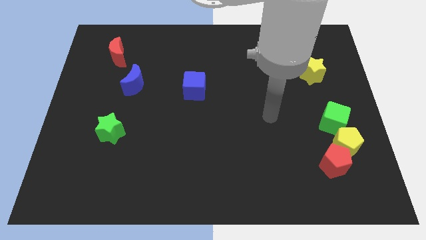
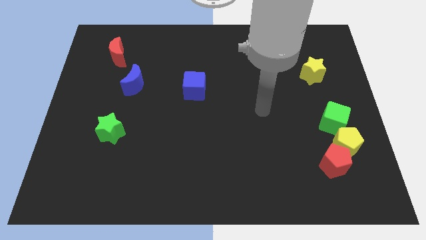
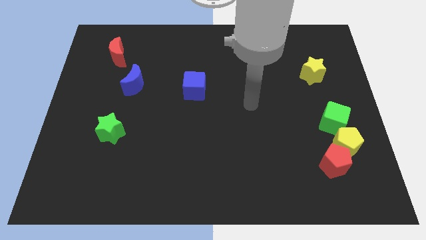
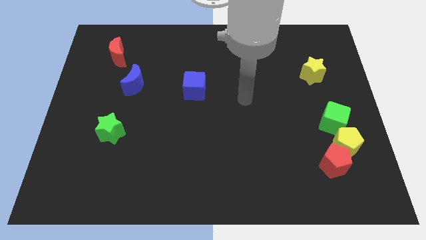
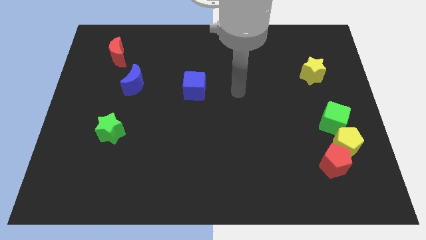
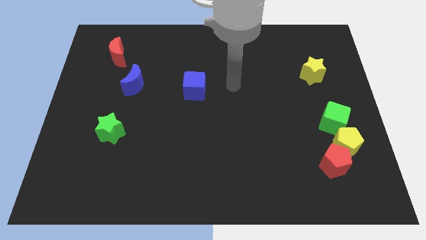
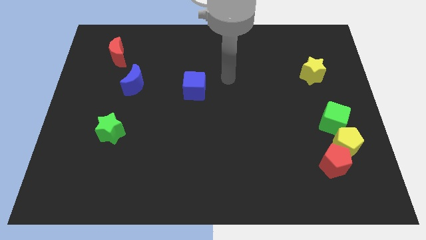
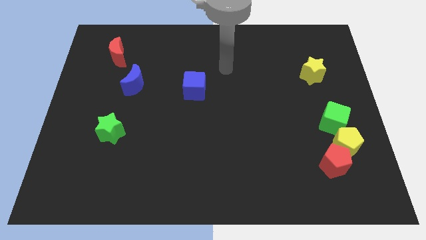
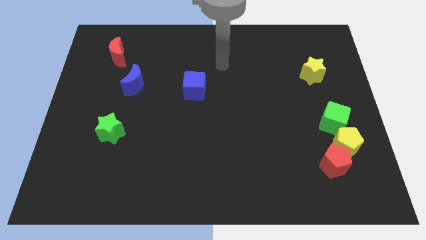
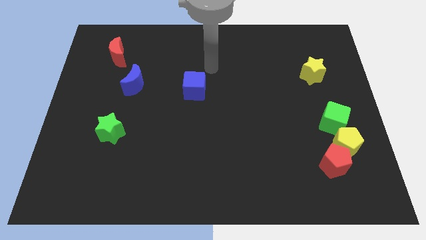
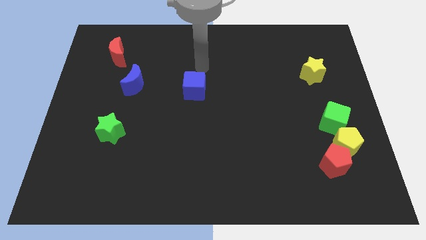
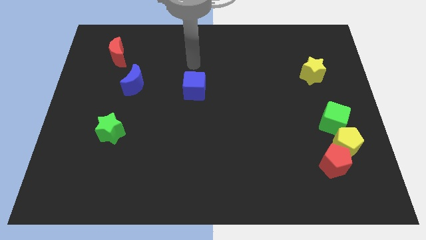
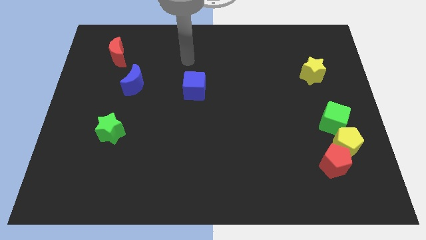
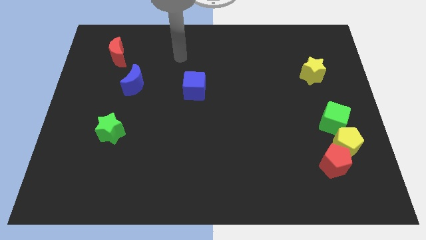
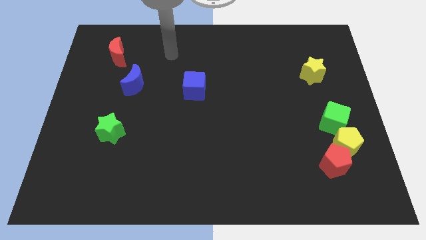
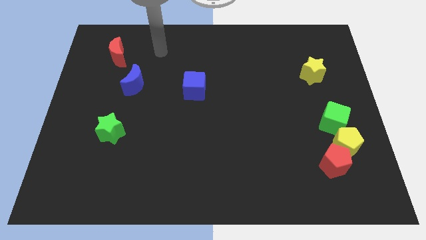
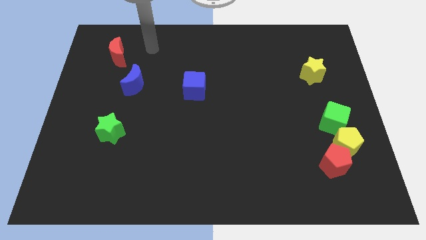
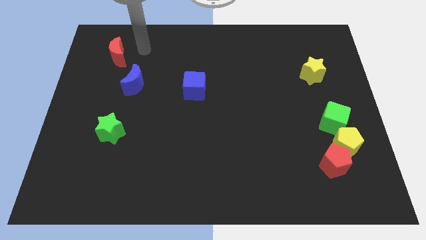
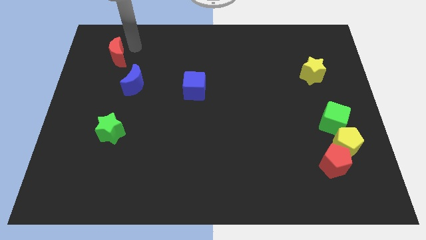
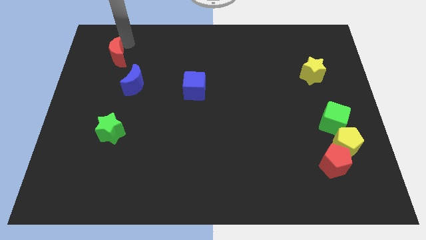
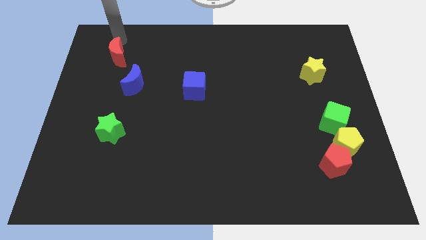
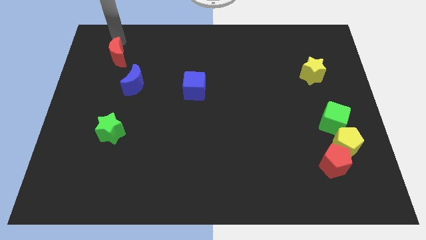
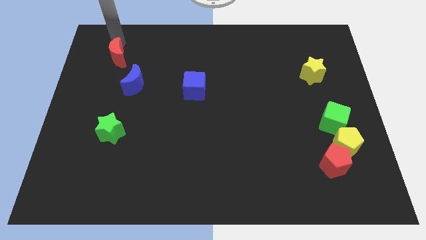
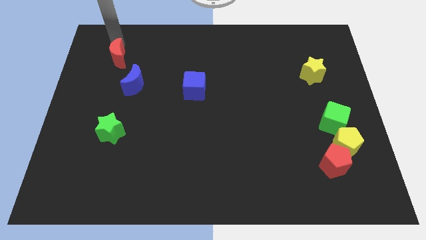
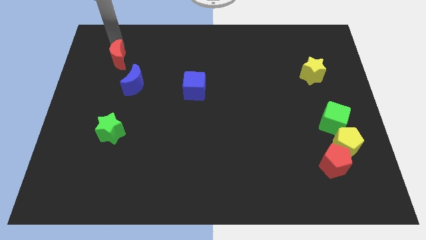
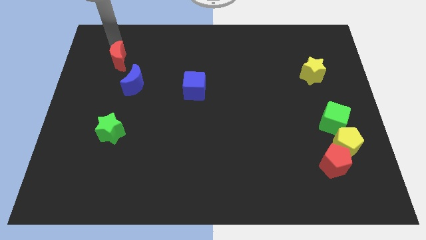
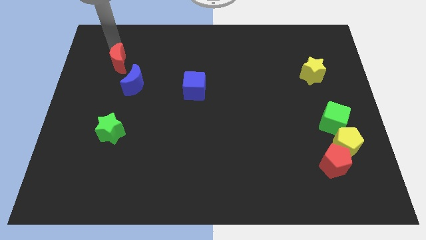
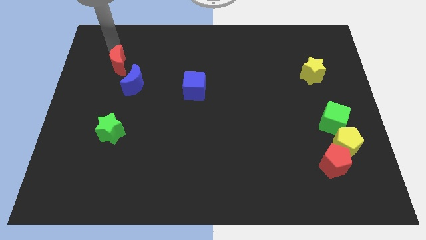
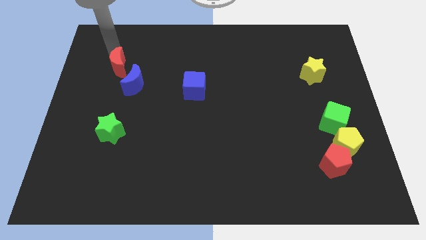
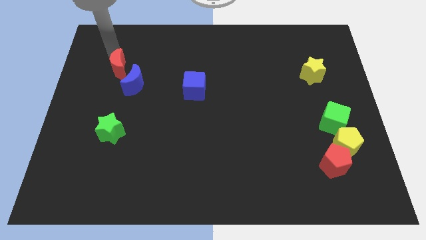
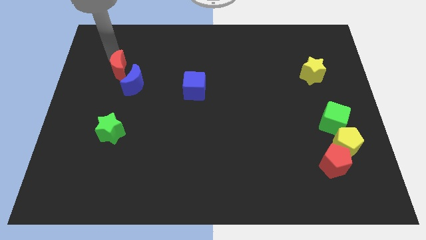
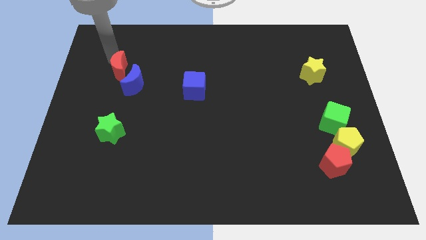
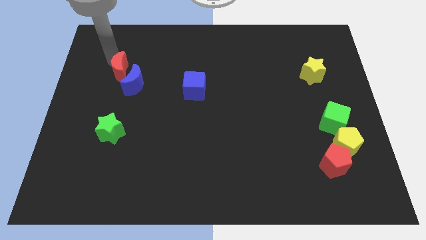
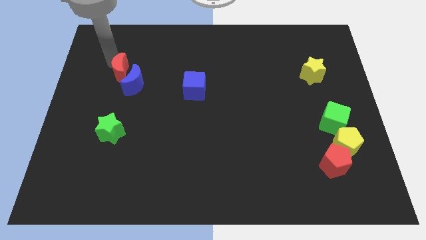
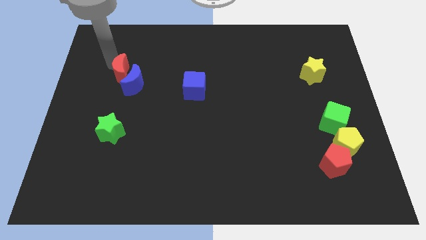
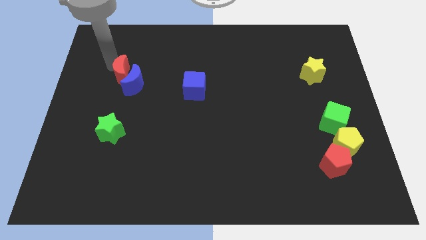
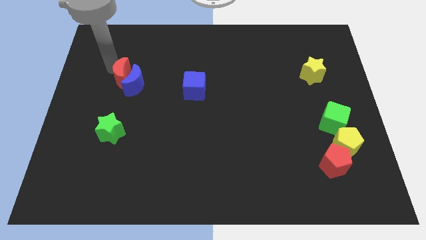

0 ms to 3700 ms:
push the red moon somewhat downwards

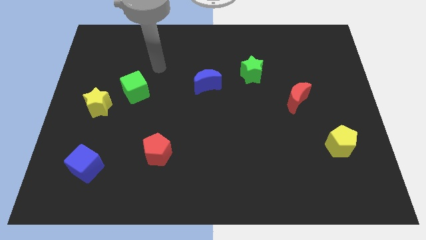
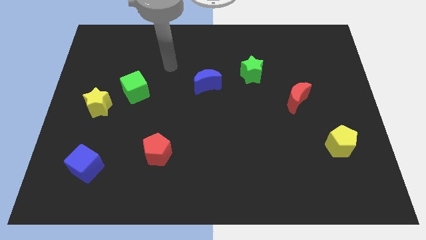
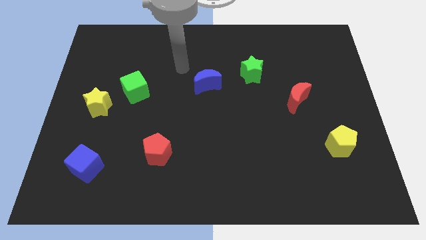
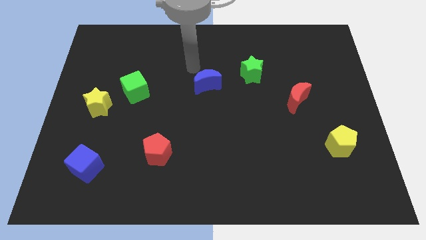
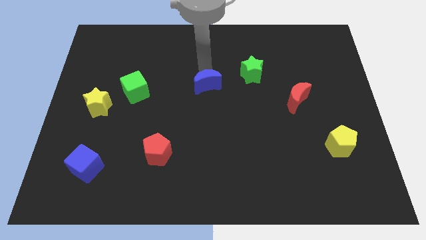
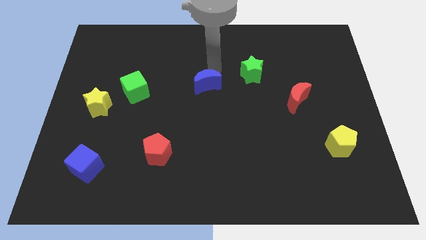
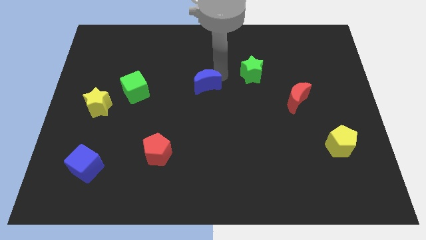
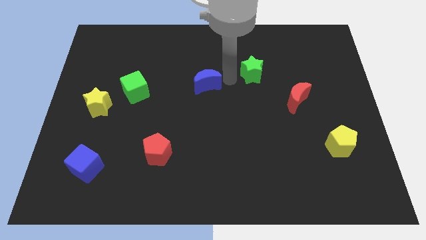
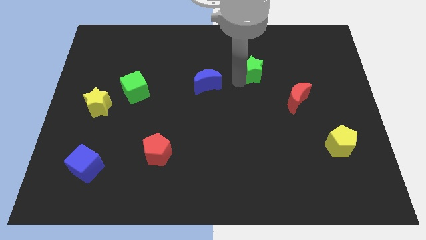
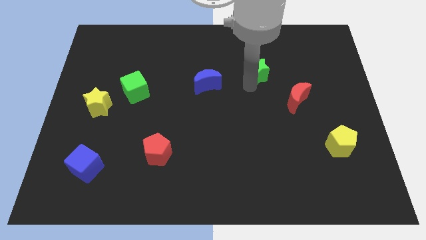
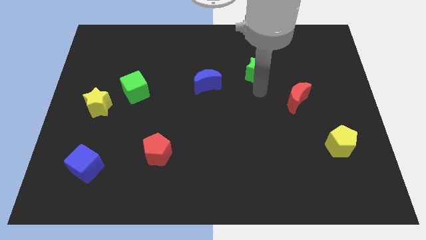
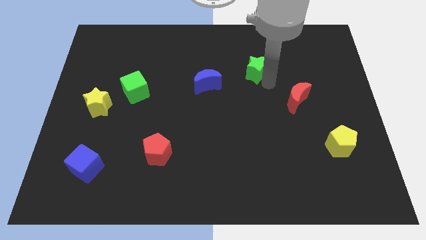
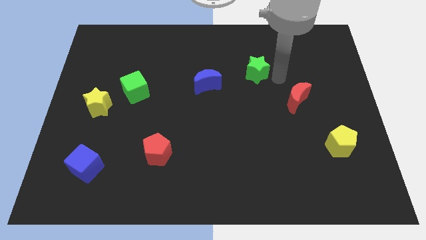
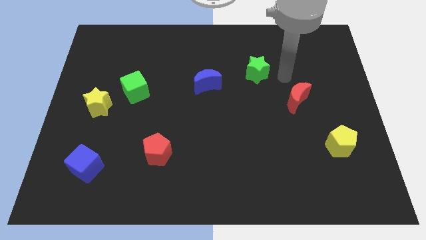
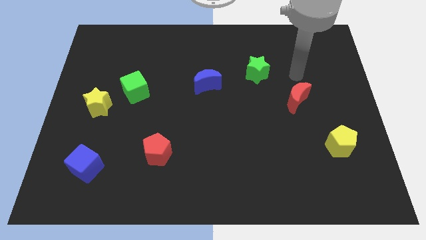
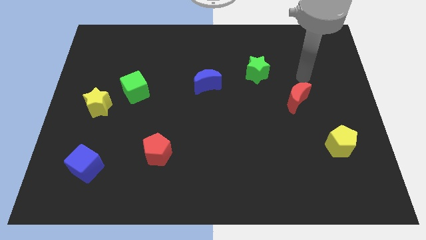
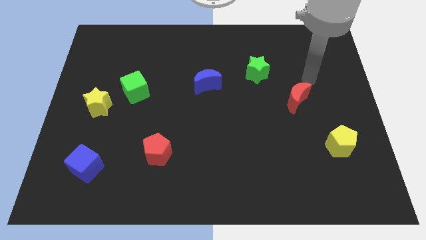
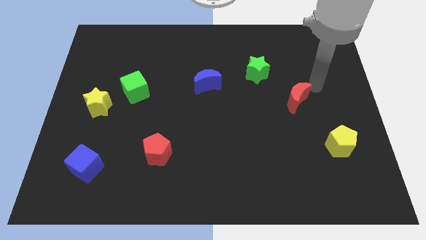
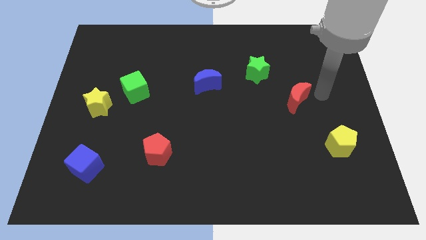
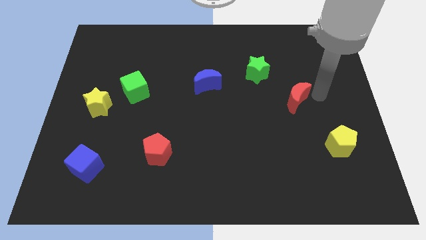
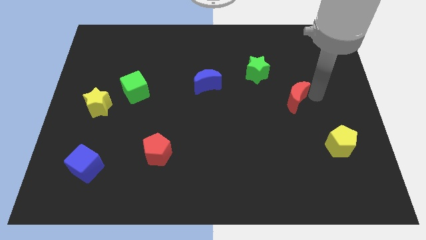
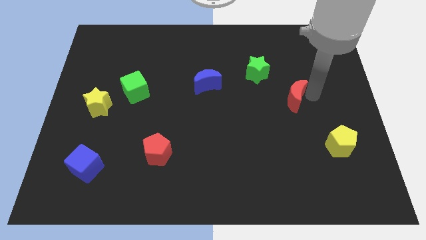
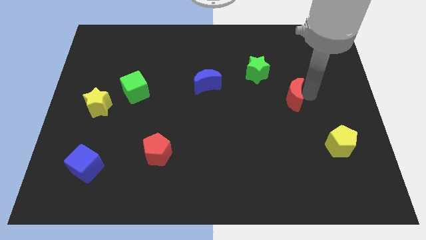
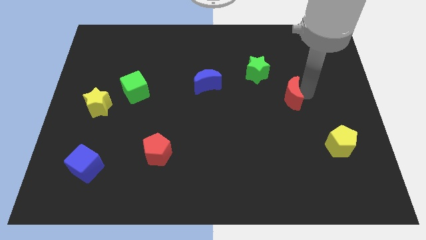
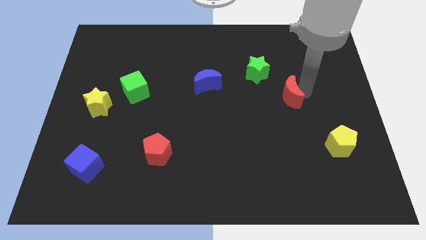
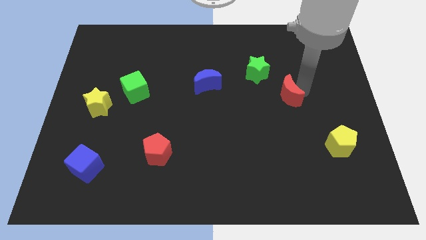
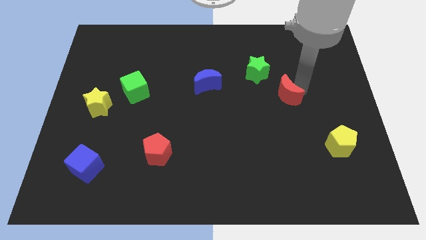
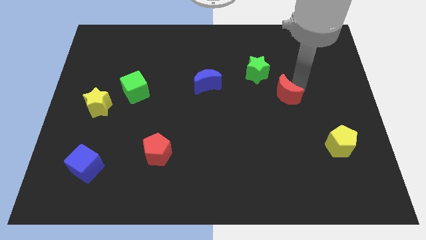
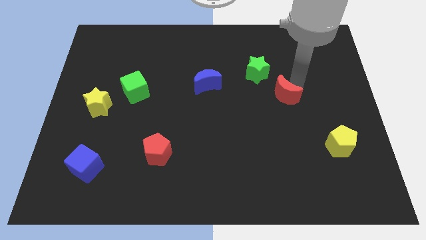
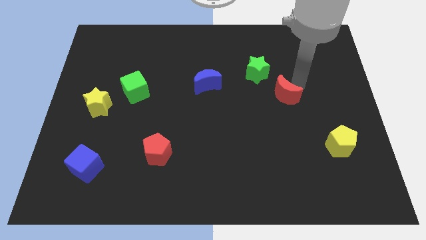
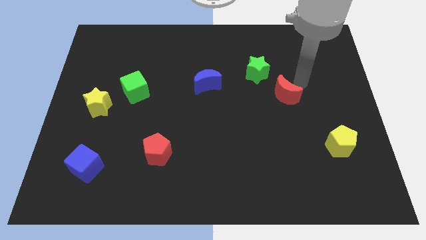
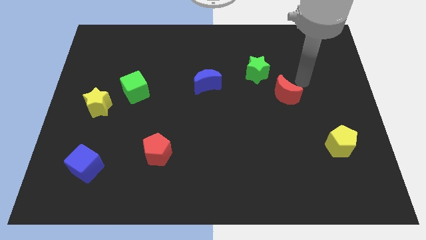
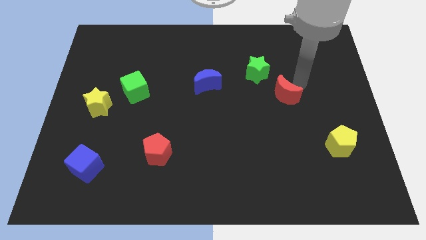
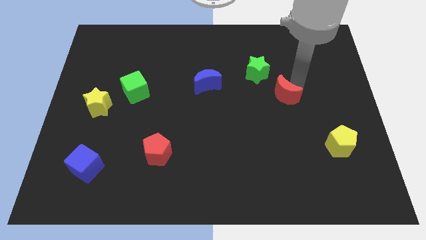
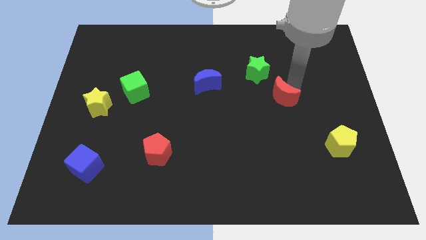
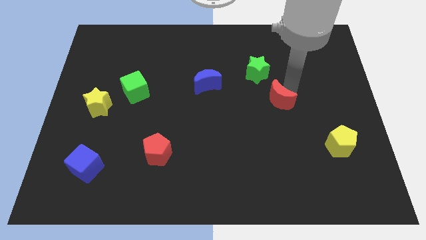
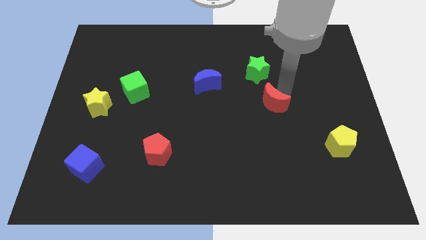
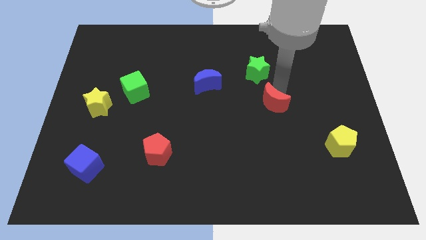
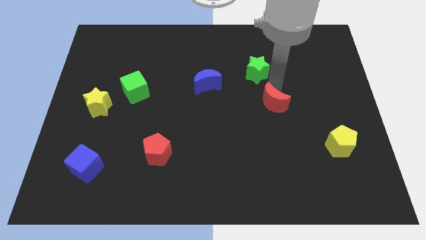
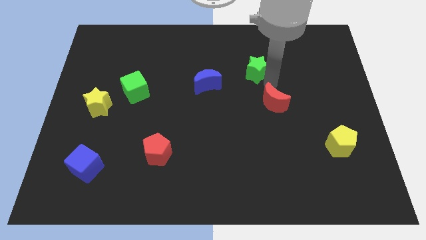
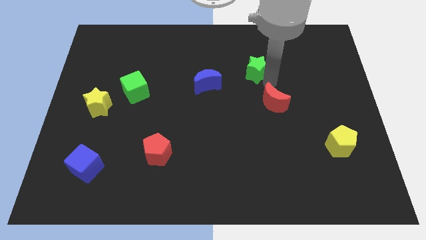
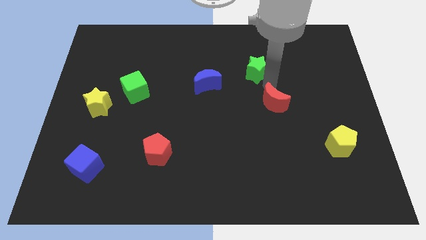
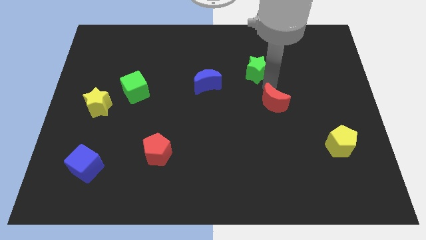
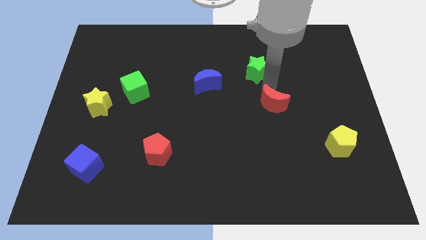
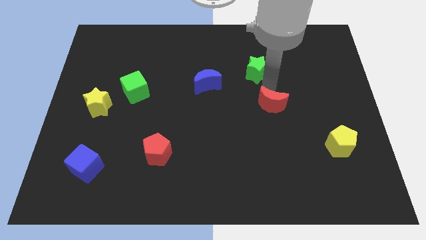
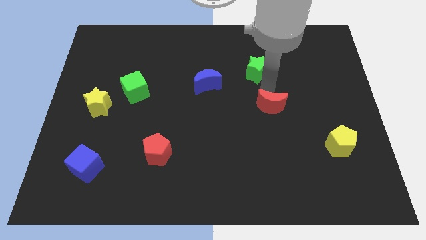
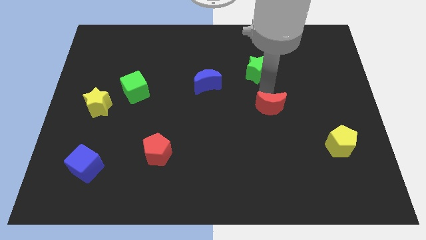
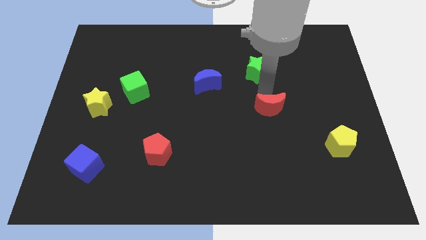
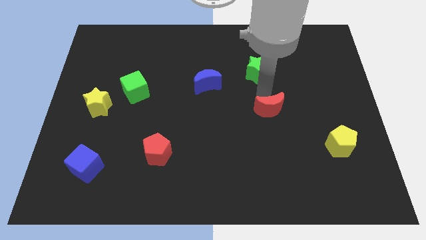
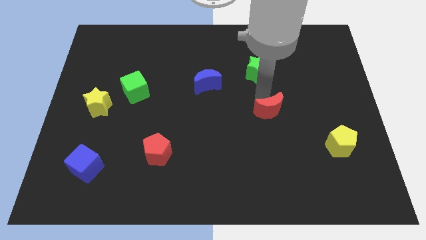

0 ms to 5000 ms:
slightly push the red moon down and to the left
